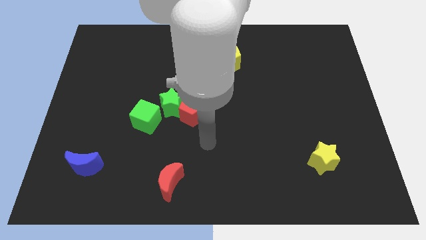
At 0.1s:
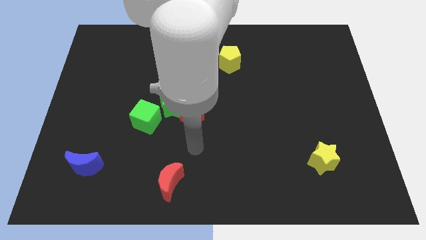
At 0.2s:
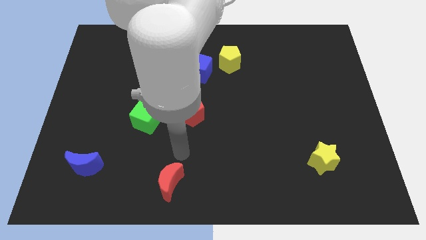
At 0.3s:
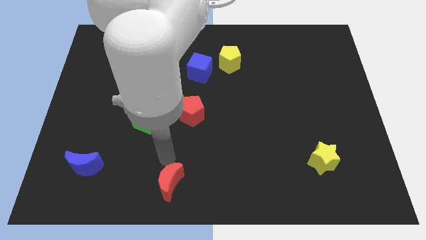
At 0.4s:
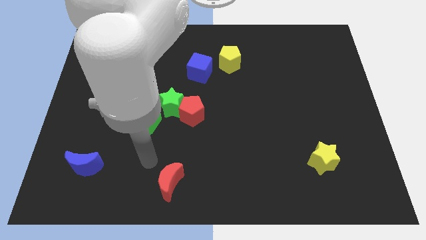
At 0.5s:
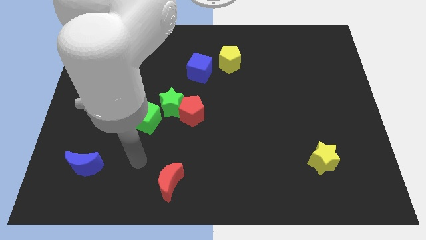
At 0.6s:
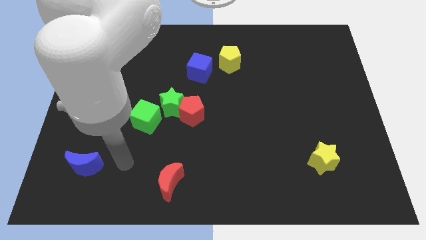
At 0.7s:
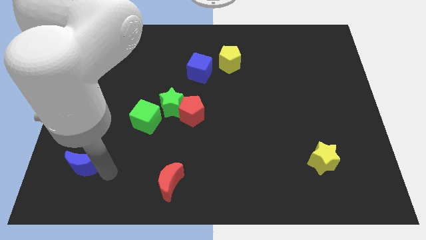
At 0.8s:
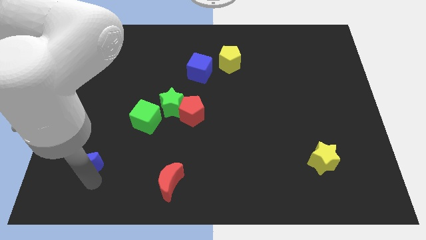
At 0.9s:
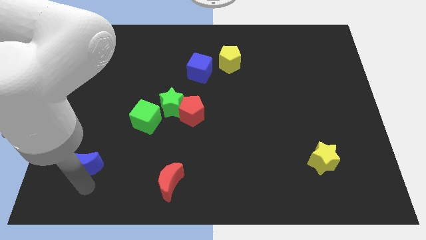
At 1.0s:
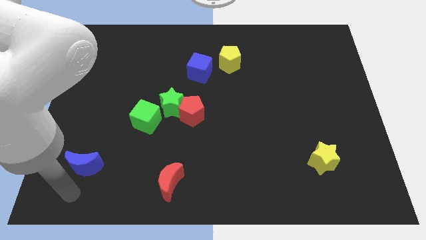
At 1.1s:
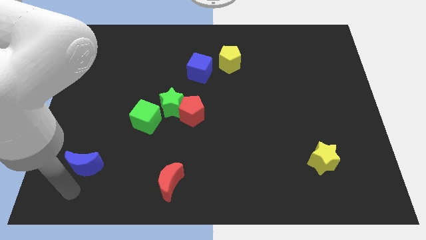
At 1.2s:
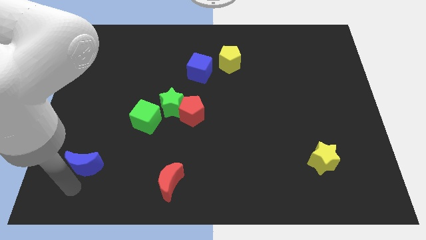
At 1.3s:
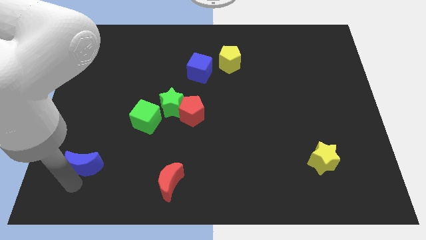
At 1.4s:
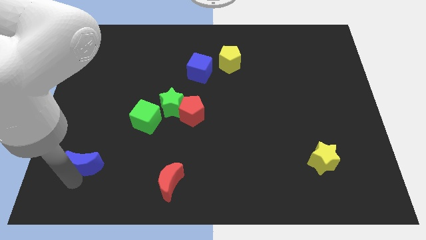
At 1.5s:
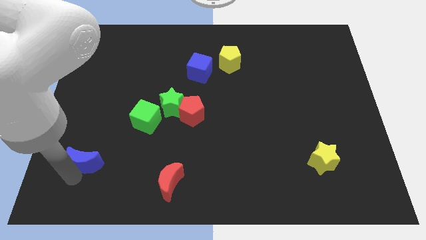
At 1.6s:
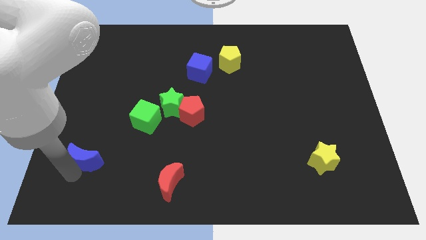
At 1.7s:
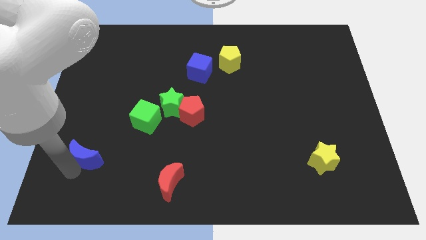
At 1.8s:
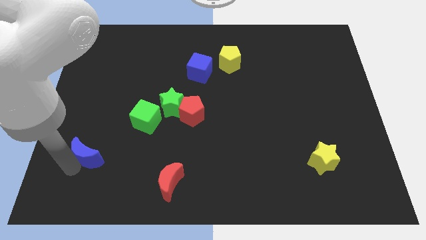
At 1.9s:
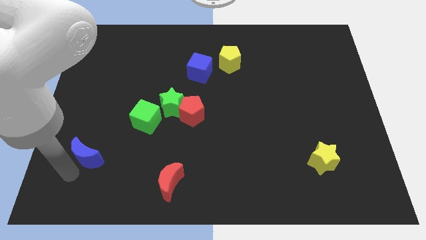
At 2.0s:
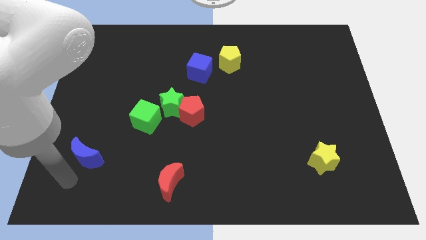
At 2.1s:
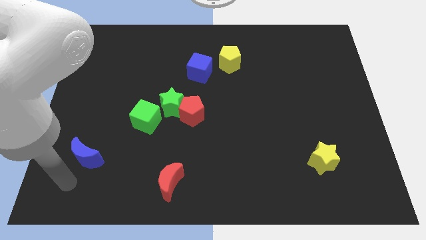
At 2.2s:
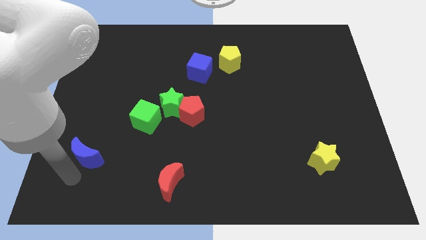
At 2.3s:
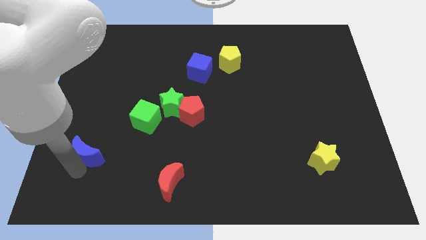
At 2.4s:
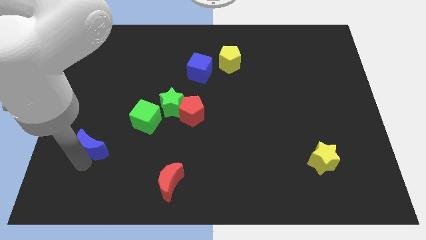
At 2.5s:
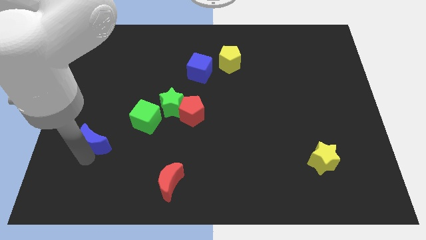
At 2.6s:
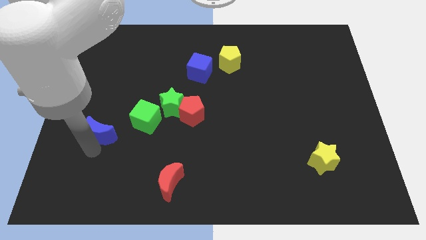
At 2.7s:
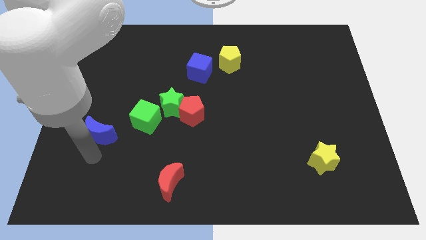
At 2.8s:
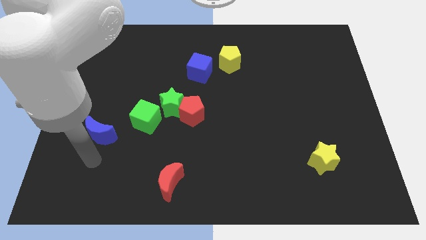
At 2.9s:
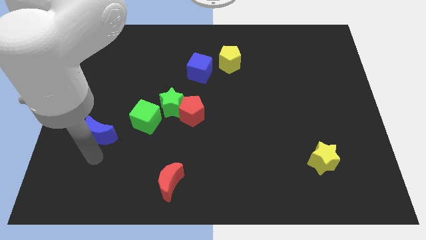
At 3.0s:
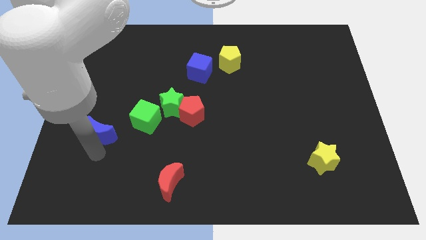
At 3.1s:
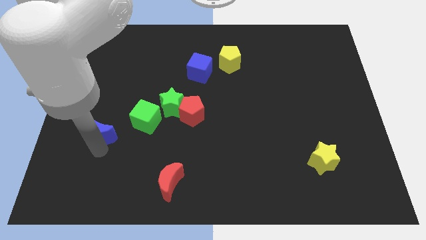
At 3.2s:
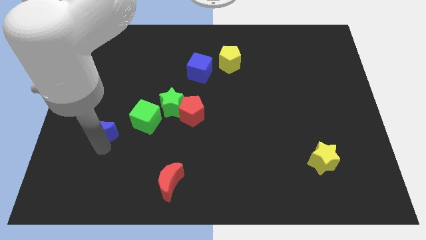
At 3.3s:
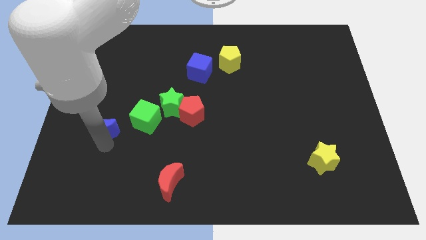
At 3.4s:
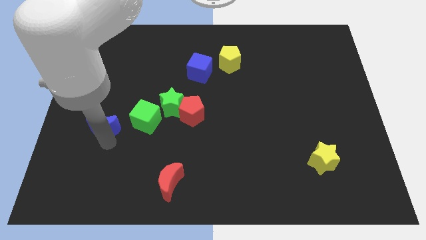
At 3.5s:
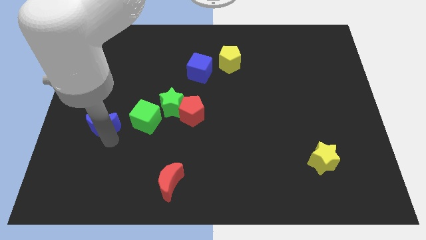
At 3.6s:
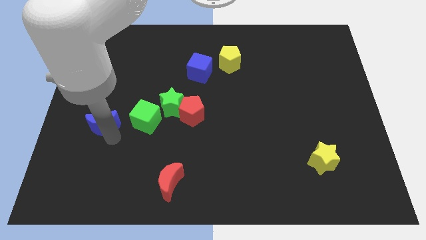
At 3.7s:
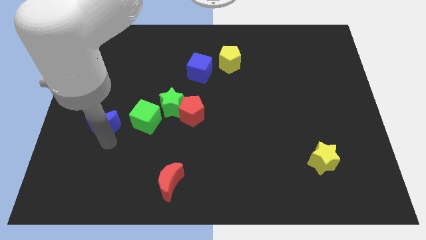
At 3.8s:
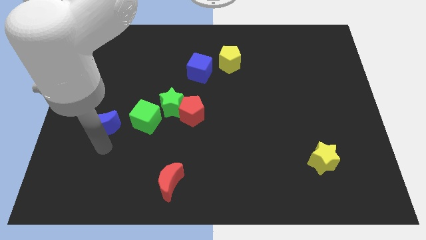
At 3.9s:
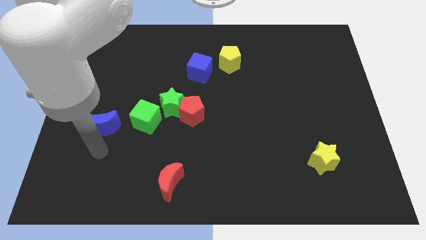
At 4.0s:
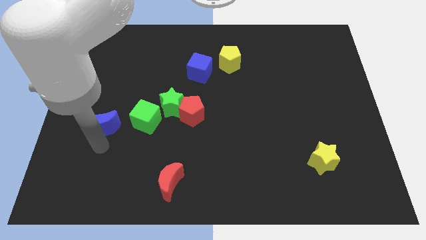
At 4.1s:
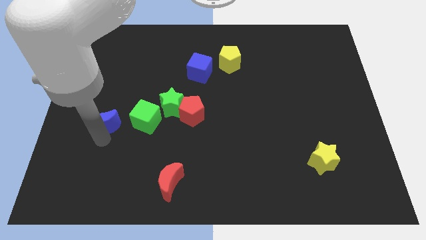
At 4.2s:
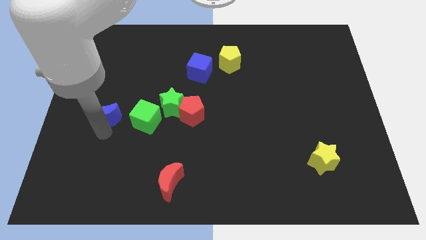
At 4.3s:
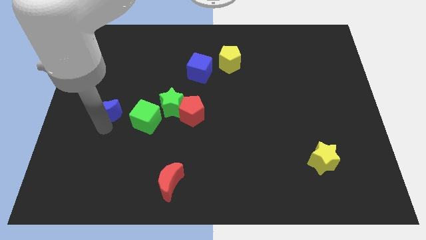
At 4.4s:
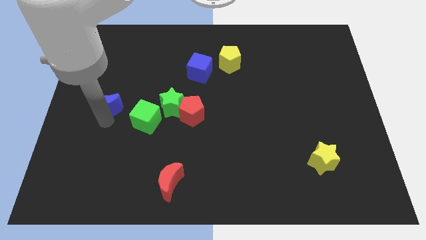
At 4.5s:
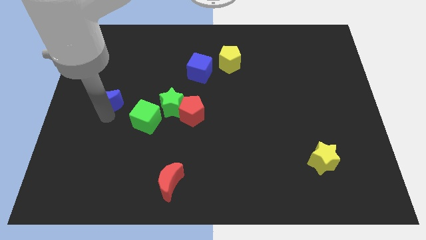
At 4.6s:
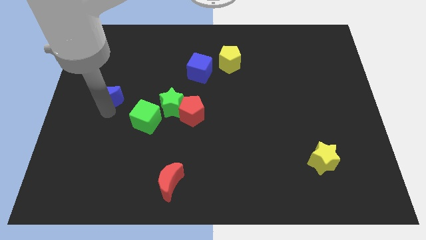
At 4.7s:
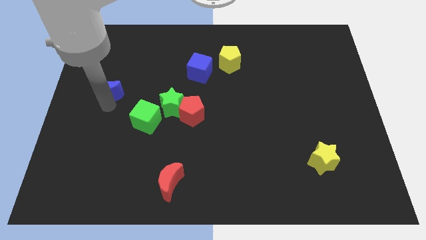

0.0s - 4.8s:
move the blue moon up

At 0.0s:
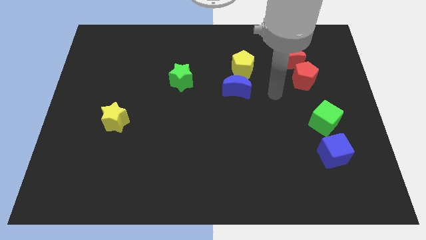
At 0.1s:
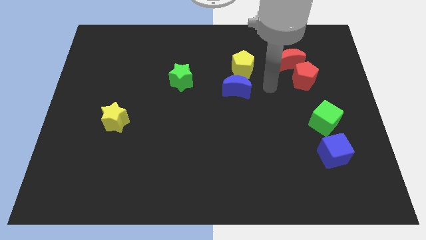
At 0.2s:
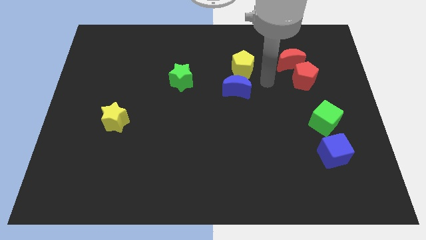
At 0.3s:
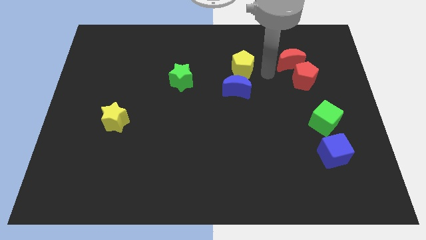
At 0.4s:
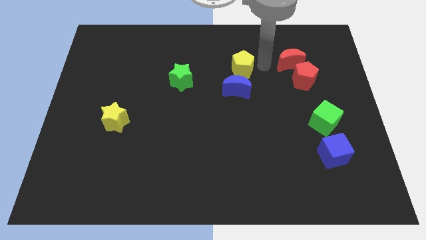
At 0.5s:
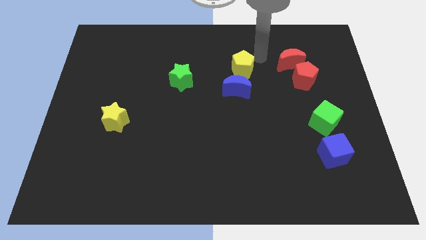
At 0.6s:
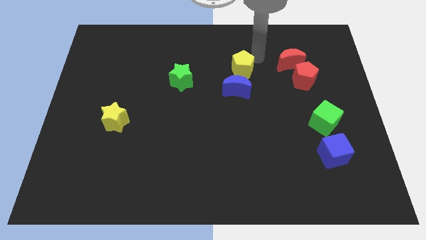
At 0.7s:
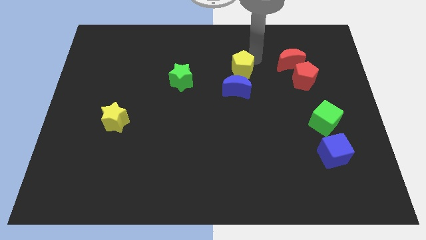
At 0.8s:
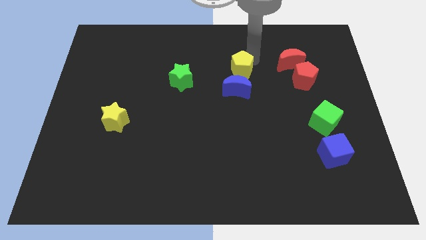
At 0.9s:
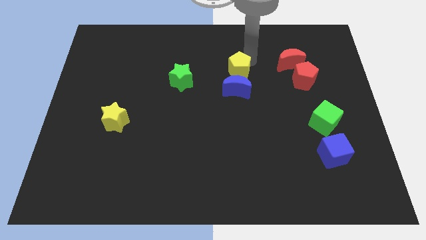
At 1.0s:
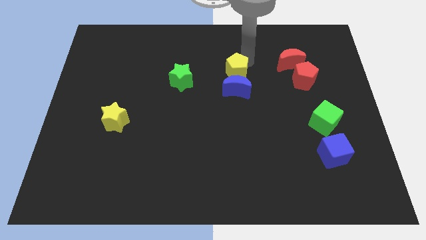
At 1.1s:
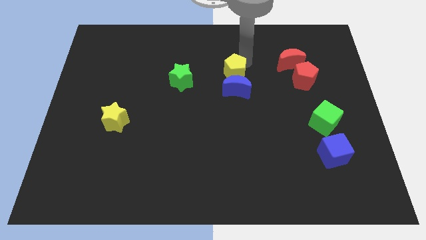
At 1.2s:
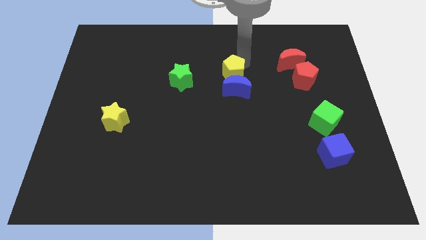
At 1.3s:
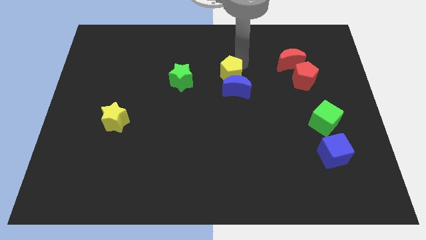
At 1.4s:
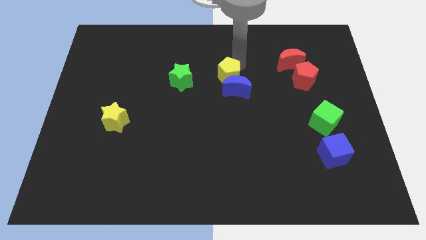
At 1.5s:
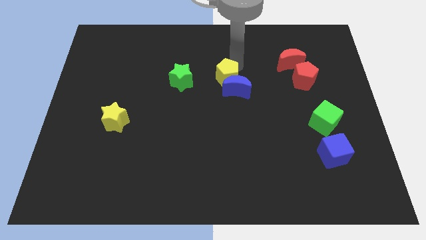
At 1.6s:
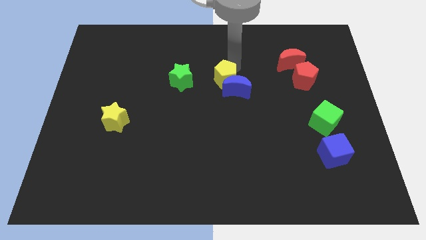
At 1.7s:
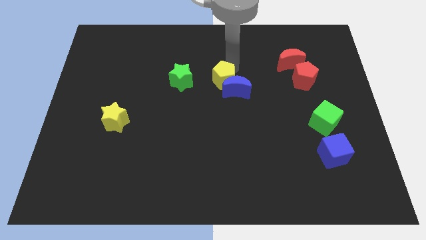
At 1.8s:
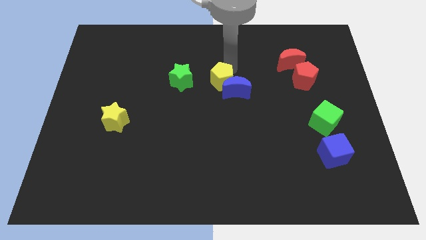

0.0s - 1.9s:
push the yellow pentagon down and left diagonally somewhat

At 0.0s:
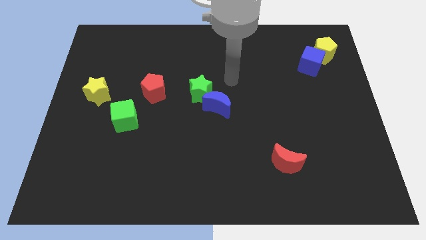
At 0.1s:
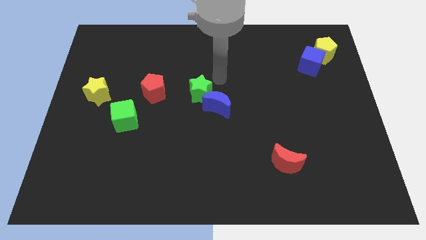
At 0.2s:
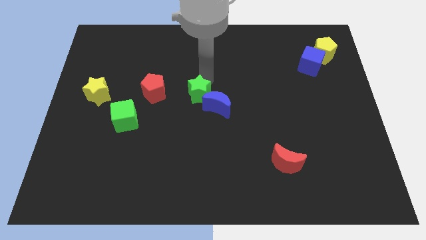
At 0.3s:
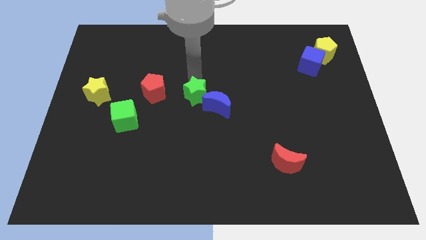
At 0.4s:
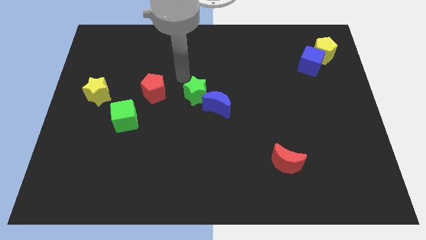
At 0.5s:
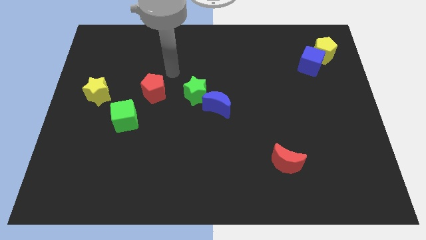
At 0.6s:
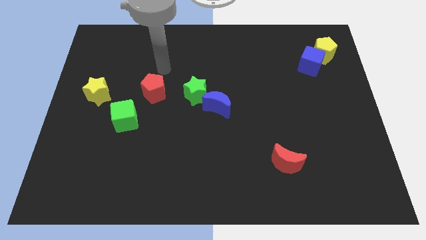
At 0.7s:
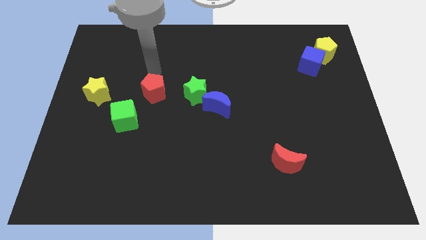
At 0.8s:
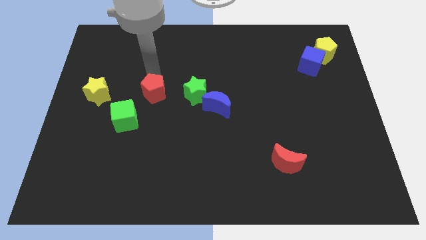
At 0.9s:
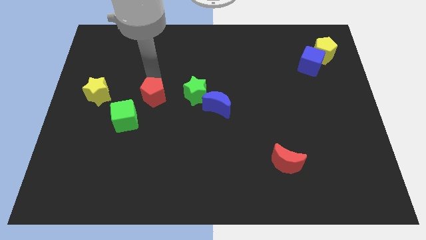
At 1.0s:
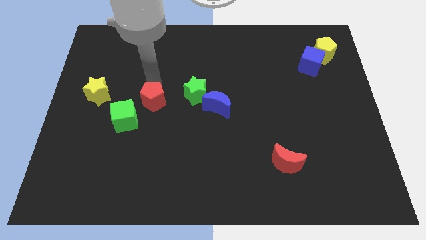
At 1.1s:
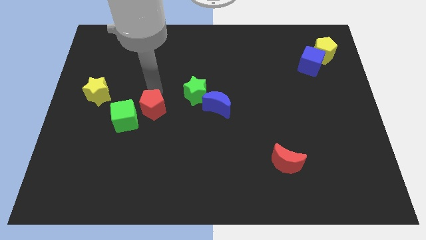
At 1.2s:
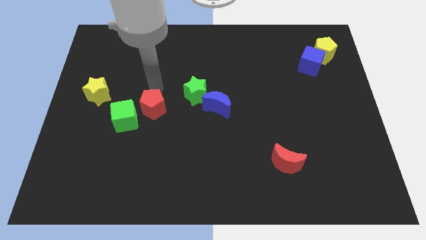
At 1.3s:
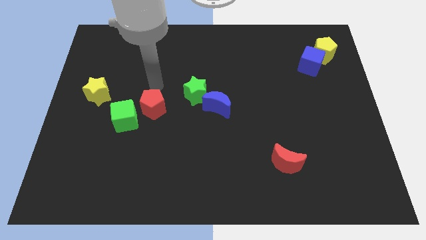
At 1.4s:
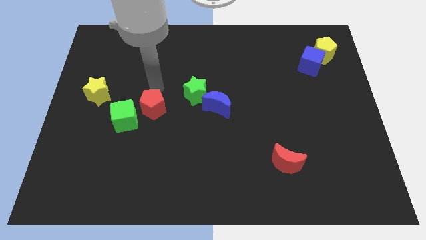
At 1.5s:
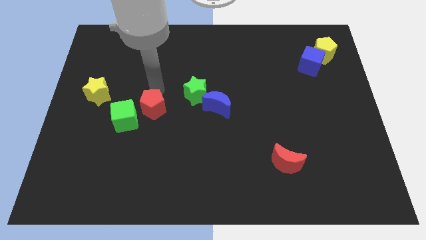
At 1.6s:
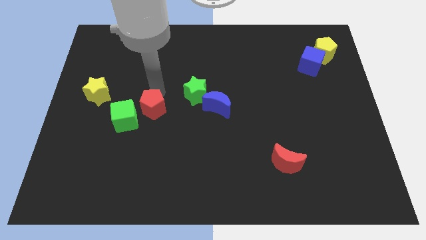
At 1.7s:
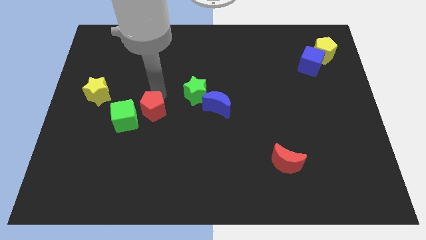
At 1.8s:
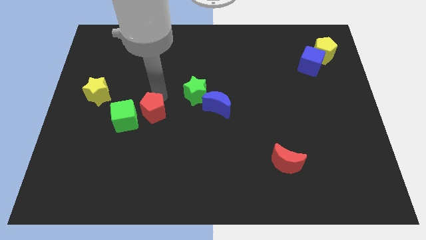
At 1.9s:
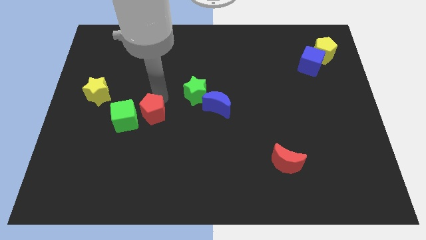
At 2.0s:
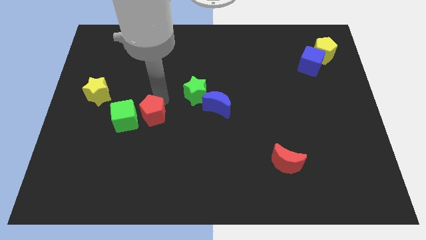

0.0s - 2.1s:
push the red pentagon downwards a little bit
